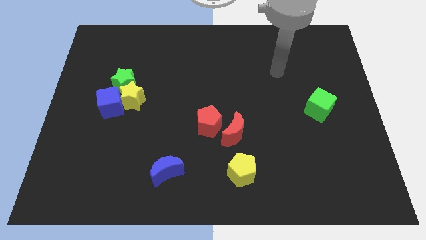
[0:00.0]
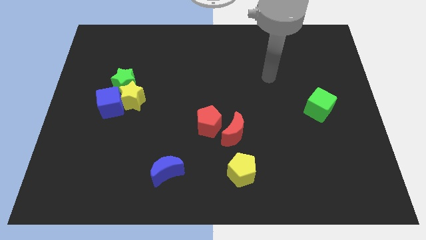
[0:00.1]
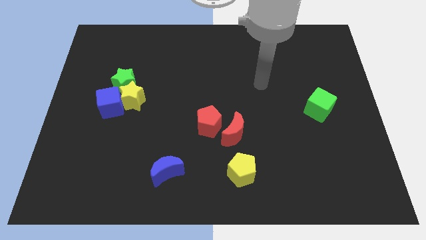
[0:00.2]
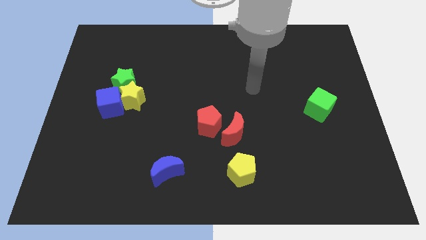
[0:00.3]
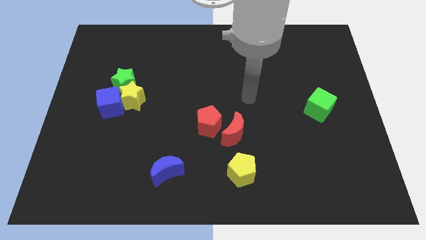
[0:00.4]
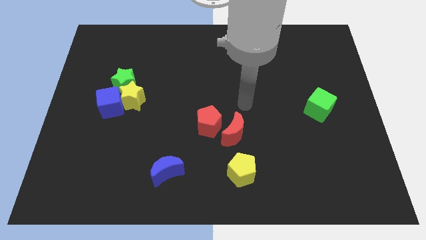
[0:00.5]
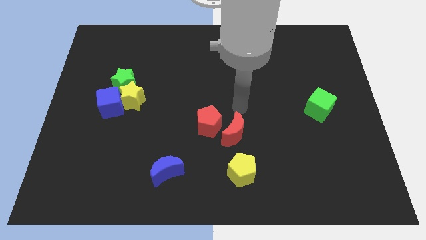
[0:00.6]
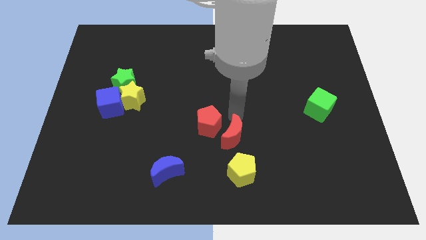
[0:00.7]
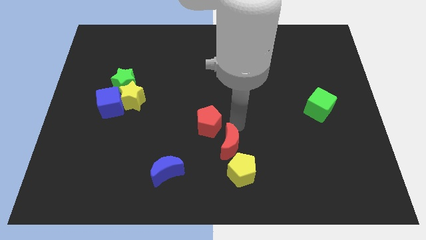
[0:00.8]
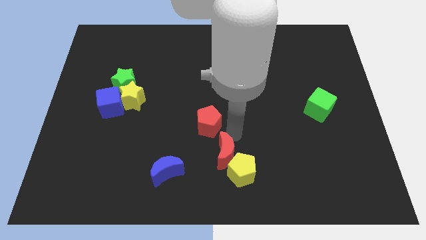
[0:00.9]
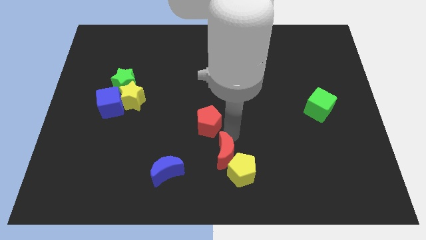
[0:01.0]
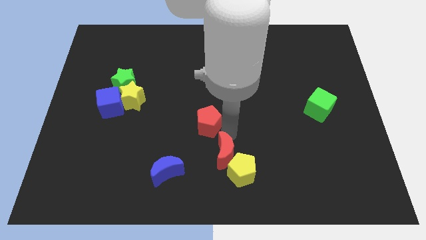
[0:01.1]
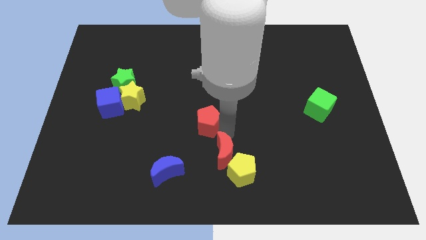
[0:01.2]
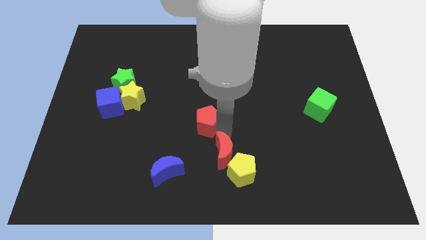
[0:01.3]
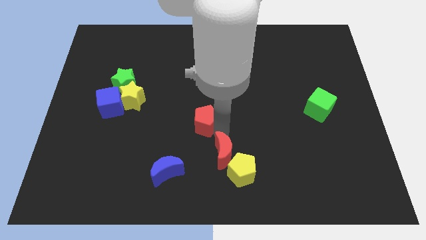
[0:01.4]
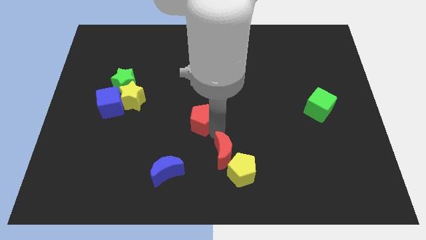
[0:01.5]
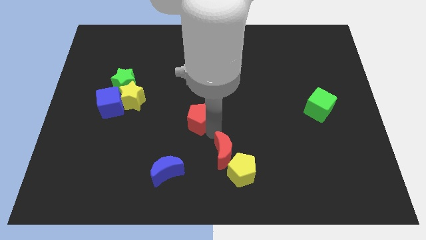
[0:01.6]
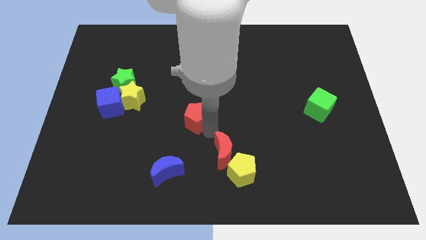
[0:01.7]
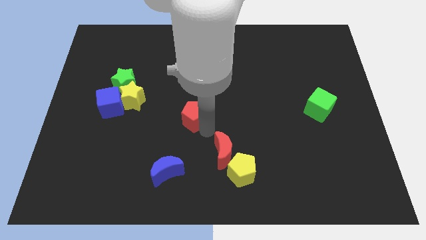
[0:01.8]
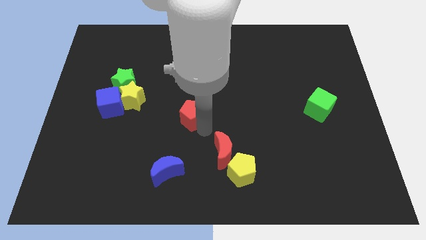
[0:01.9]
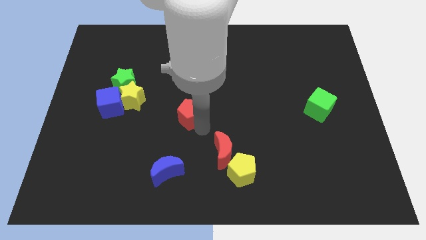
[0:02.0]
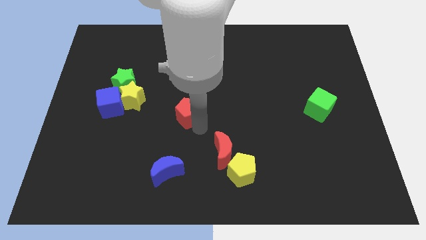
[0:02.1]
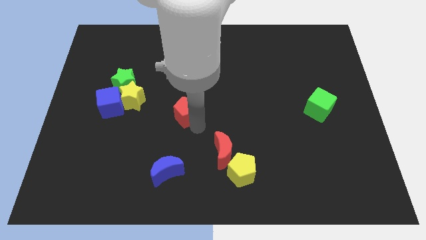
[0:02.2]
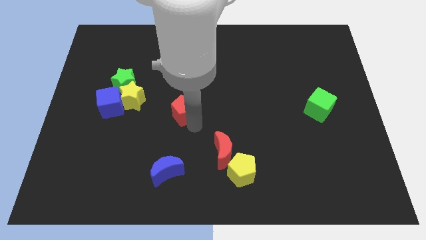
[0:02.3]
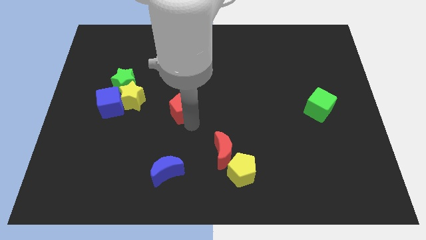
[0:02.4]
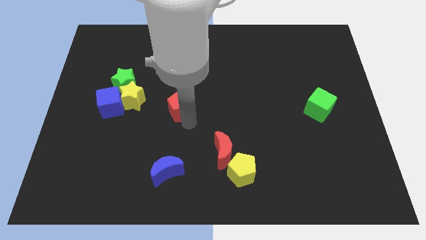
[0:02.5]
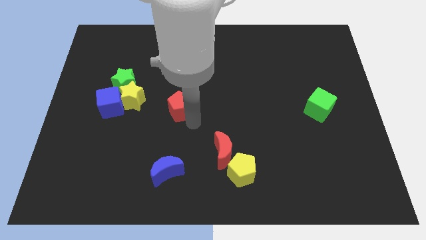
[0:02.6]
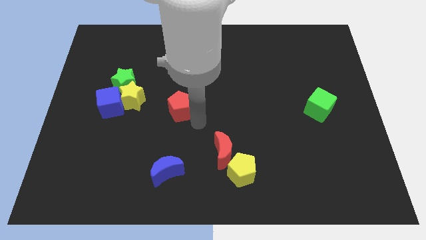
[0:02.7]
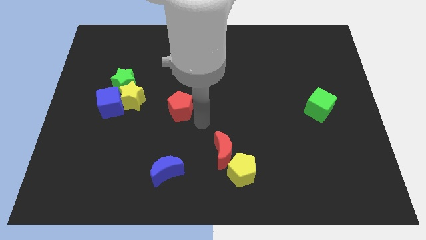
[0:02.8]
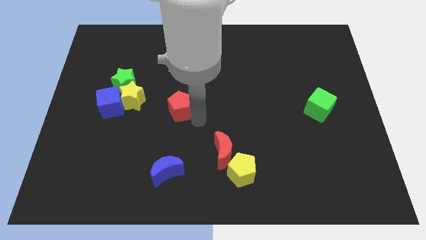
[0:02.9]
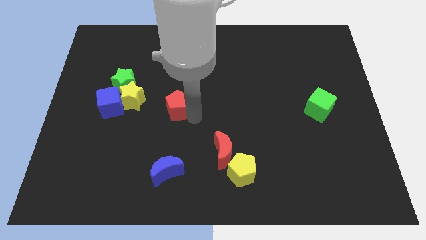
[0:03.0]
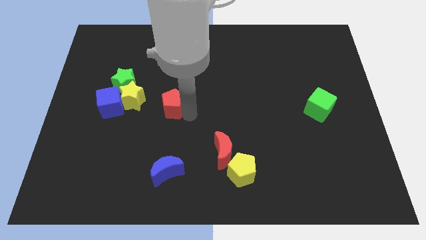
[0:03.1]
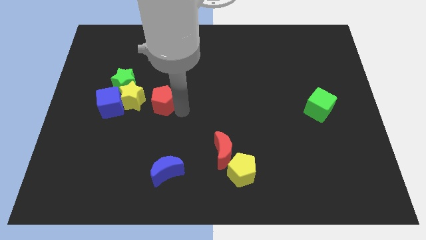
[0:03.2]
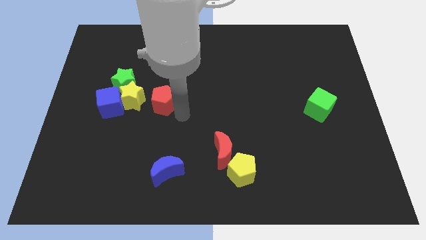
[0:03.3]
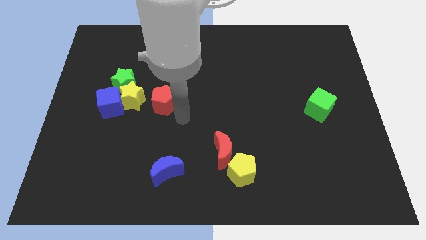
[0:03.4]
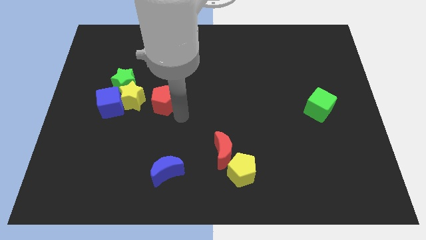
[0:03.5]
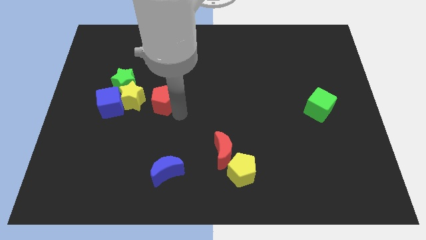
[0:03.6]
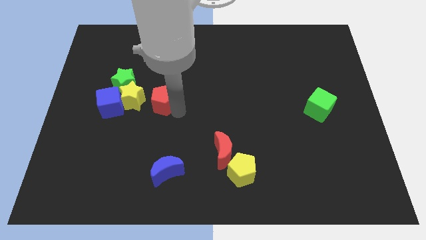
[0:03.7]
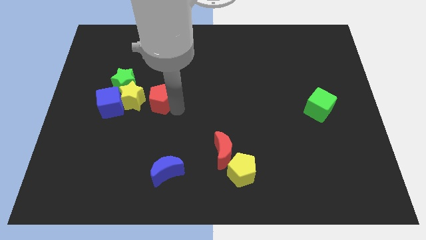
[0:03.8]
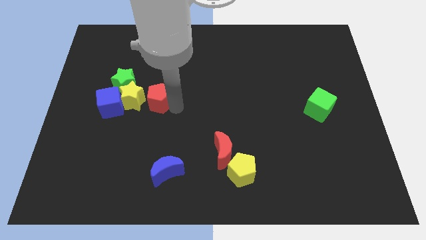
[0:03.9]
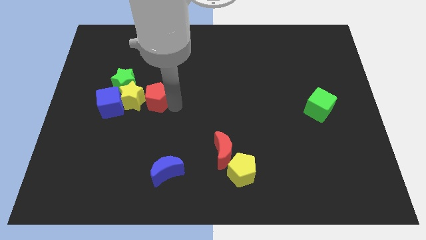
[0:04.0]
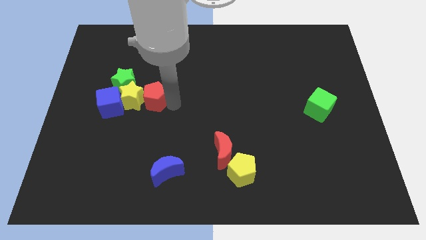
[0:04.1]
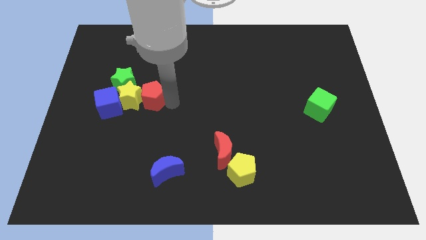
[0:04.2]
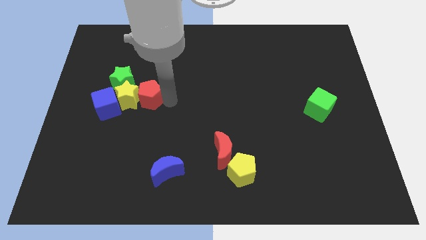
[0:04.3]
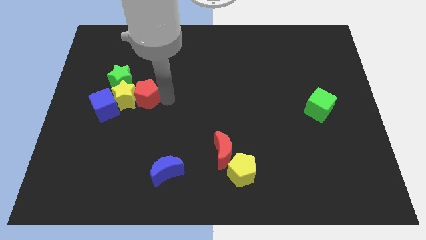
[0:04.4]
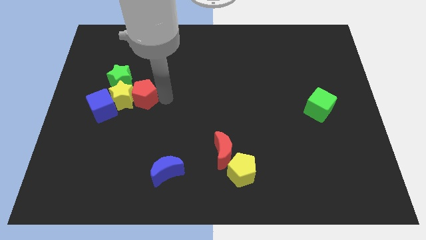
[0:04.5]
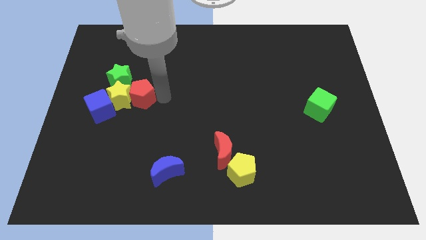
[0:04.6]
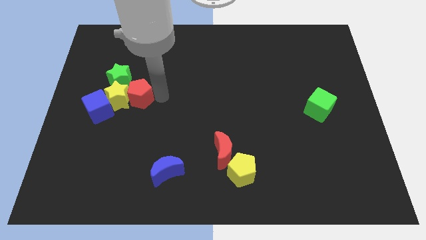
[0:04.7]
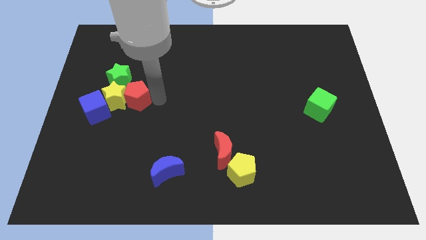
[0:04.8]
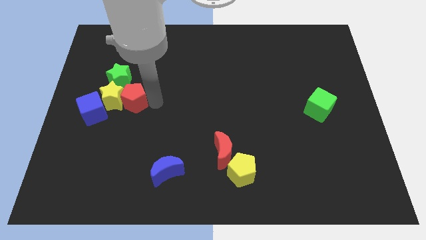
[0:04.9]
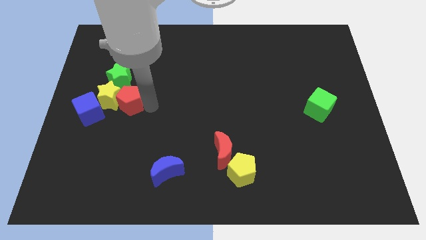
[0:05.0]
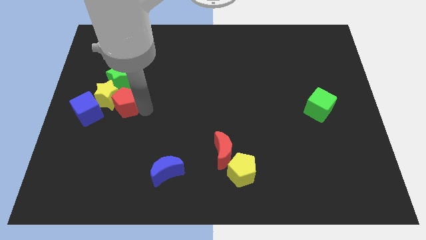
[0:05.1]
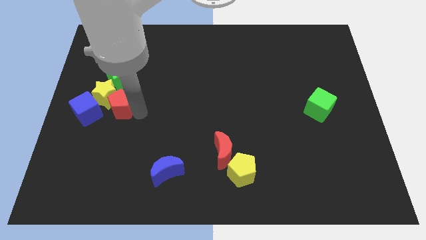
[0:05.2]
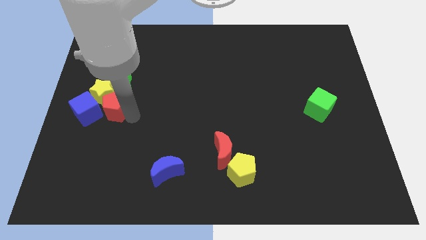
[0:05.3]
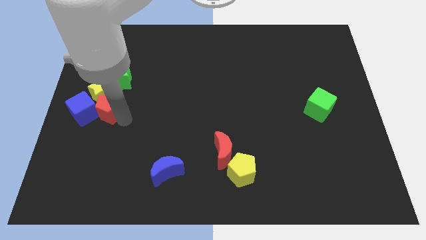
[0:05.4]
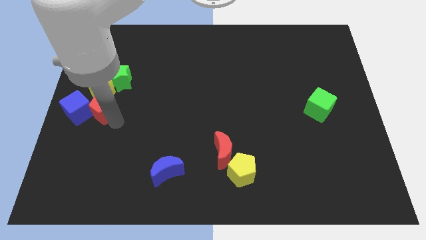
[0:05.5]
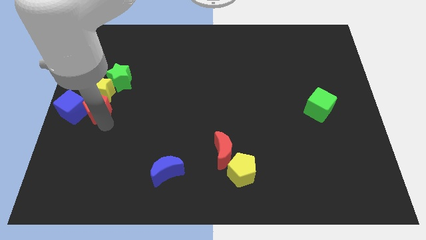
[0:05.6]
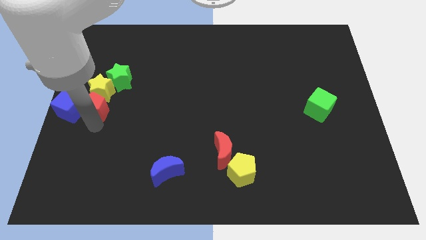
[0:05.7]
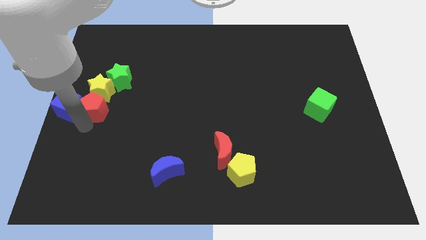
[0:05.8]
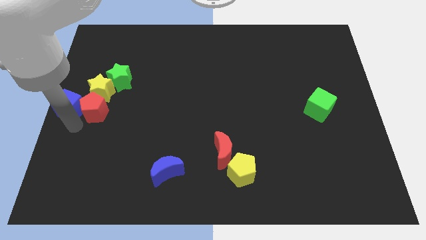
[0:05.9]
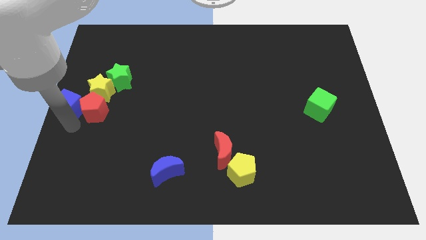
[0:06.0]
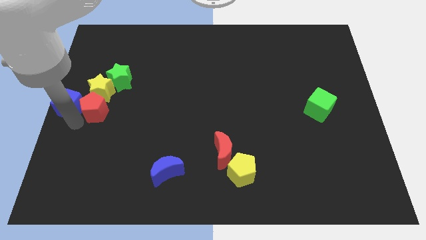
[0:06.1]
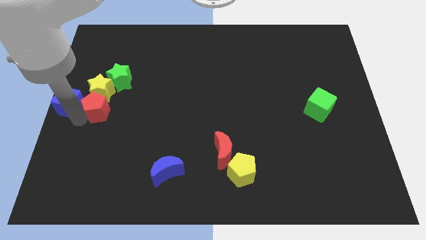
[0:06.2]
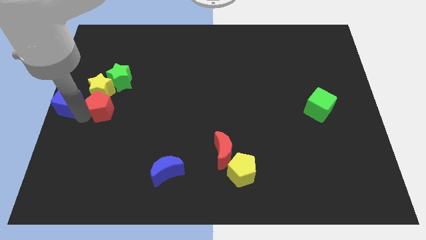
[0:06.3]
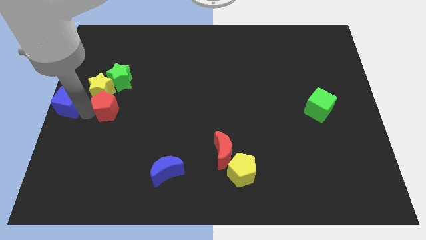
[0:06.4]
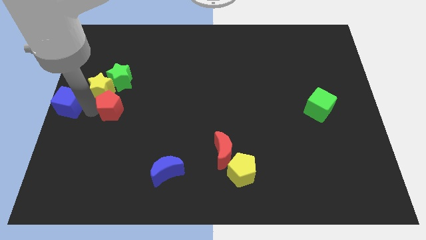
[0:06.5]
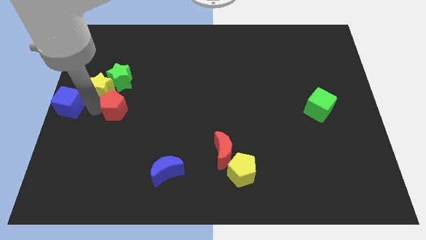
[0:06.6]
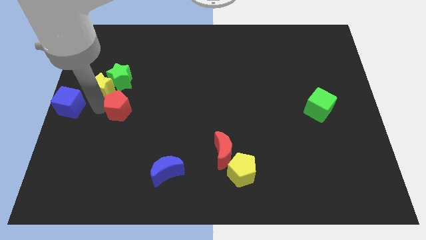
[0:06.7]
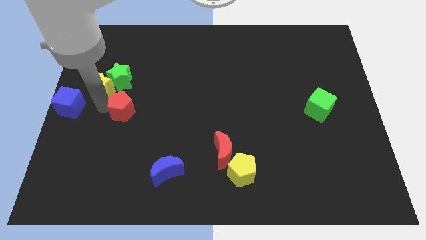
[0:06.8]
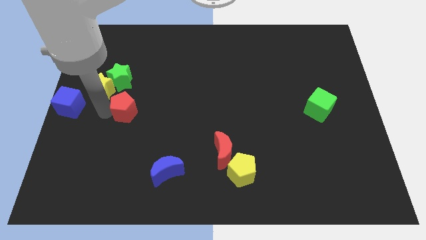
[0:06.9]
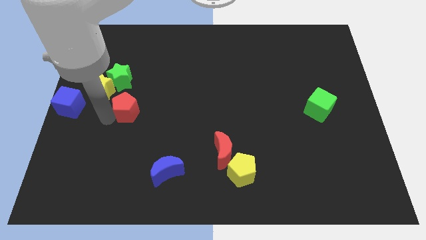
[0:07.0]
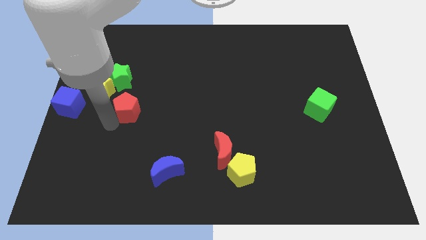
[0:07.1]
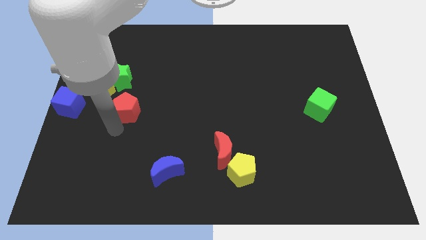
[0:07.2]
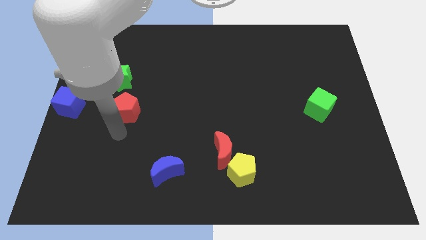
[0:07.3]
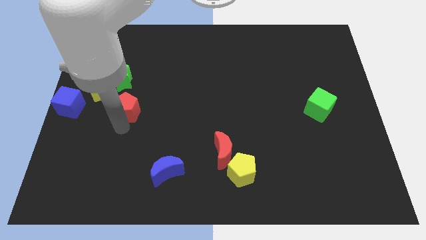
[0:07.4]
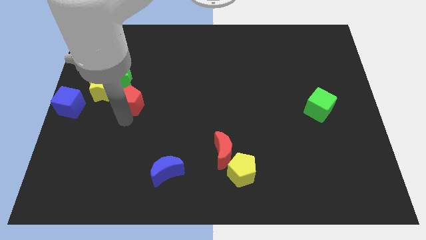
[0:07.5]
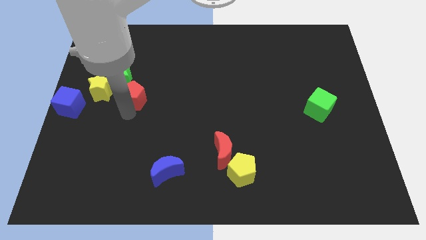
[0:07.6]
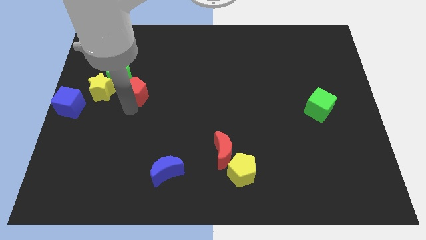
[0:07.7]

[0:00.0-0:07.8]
put the red pentagon close to the green star

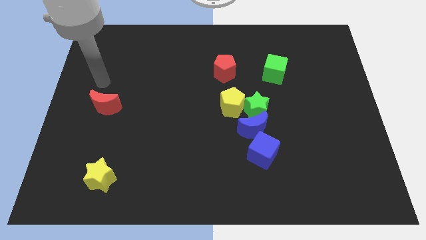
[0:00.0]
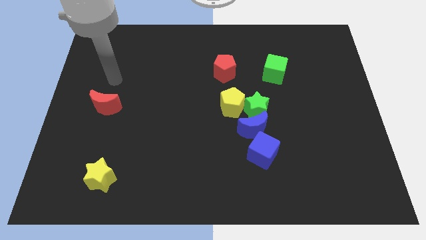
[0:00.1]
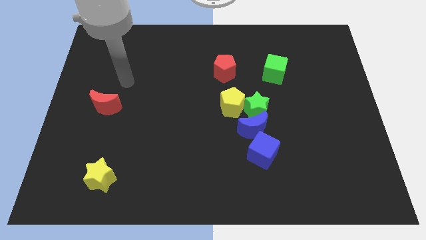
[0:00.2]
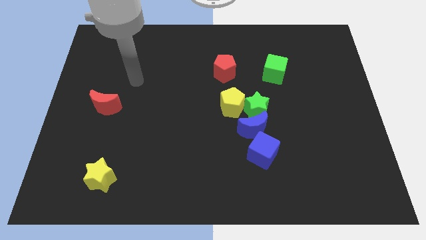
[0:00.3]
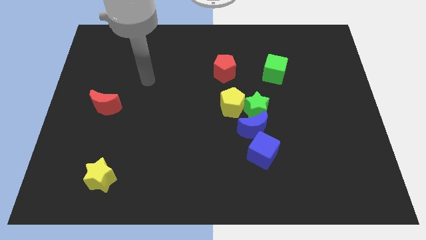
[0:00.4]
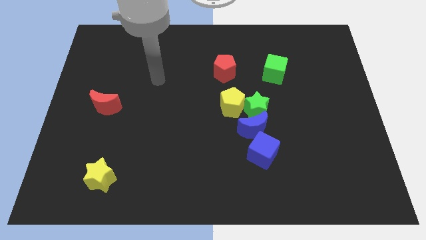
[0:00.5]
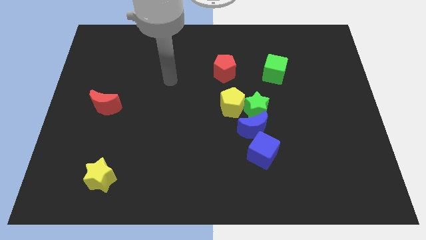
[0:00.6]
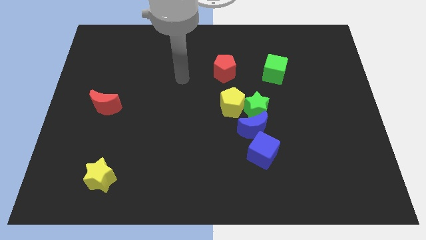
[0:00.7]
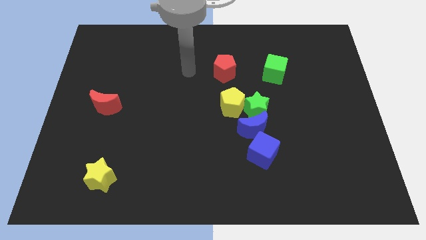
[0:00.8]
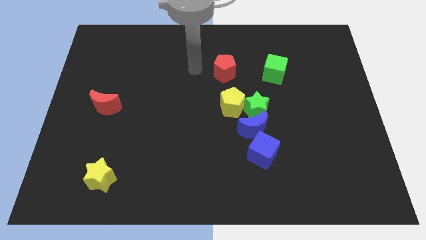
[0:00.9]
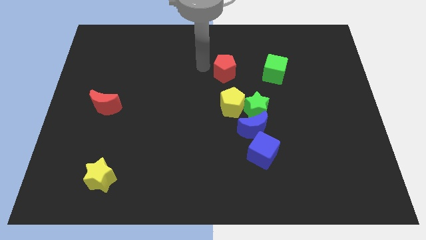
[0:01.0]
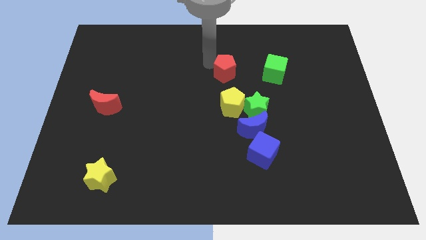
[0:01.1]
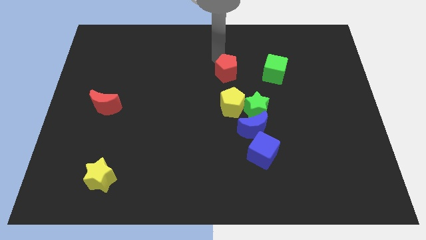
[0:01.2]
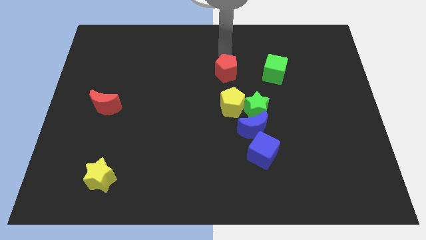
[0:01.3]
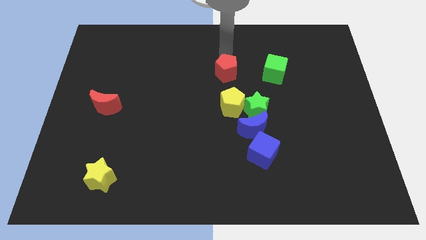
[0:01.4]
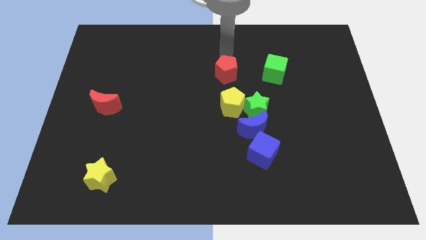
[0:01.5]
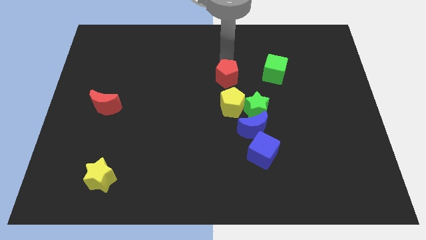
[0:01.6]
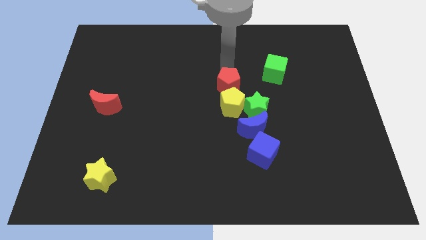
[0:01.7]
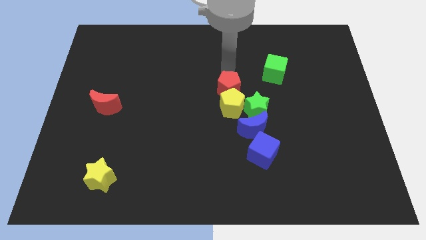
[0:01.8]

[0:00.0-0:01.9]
move the red pentagon to the yellow pentagon
